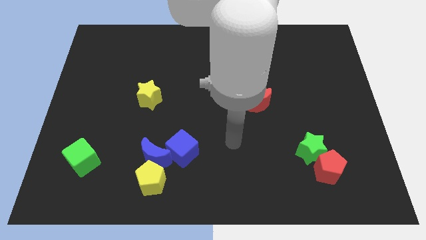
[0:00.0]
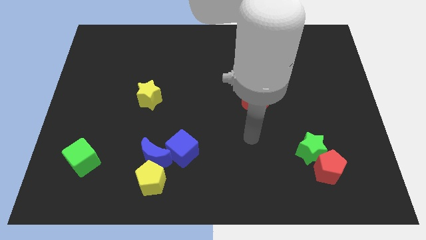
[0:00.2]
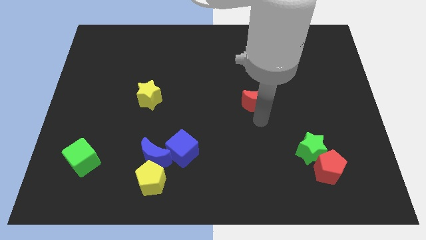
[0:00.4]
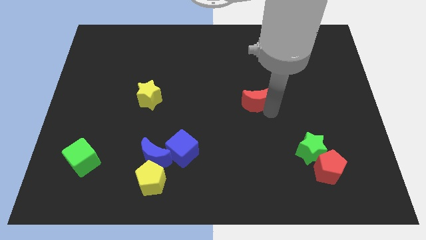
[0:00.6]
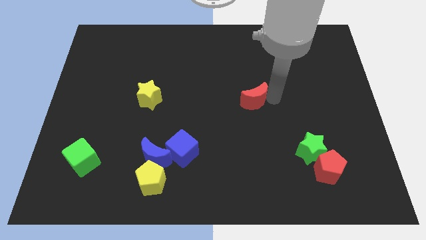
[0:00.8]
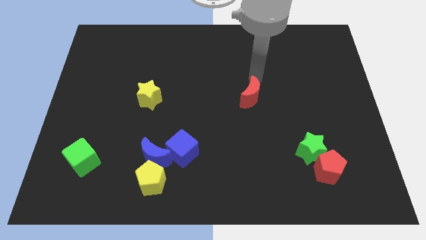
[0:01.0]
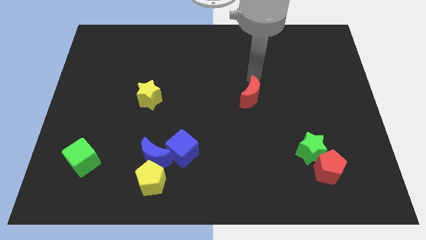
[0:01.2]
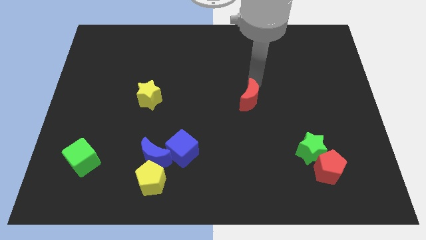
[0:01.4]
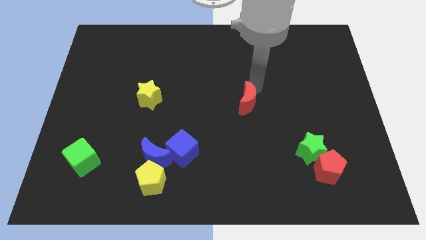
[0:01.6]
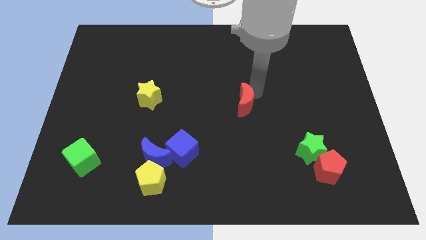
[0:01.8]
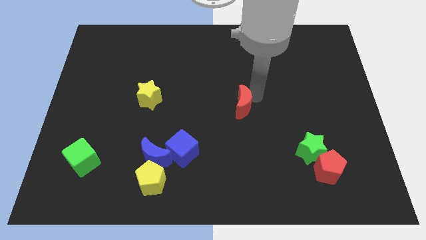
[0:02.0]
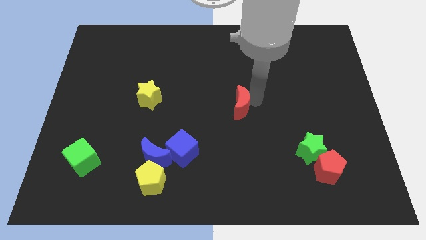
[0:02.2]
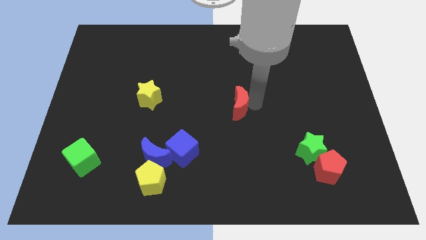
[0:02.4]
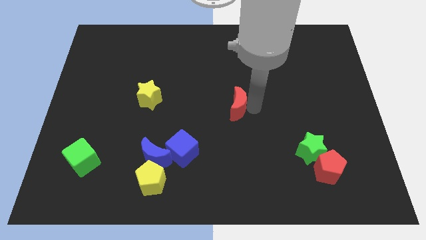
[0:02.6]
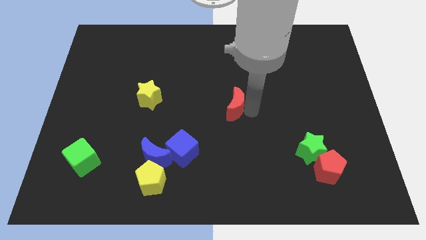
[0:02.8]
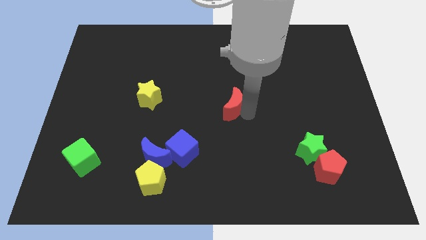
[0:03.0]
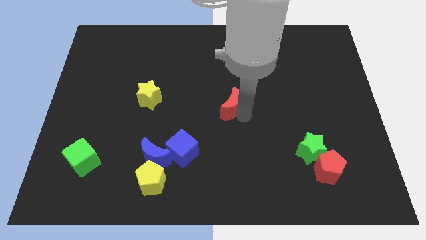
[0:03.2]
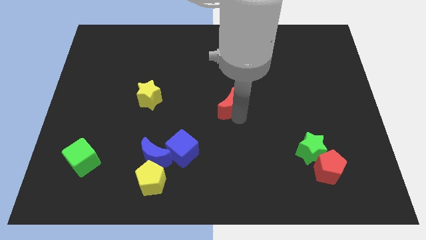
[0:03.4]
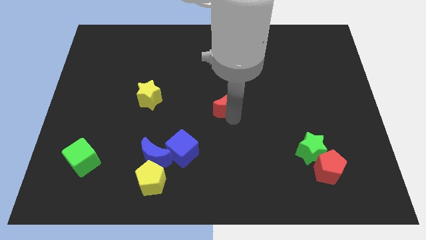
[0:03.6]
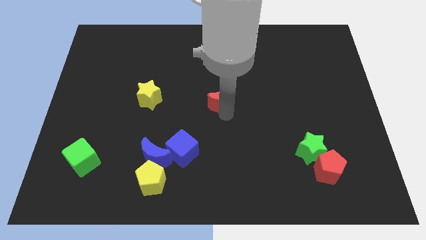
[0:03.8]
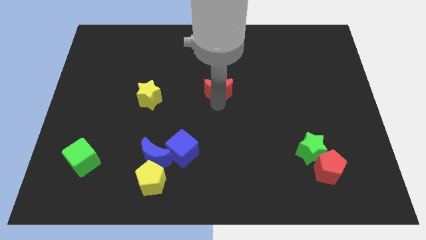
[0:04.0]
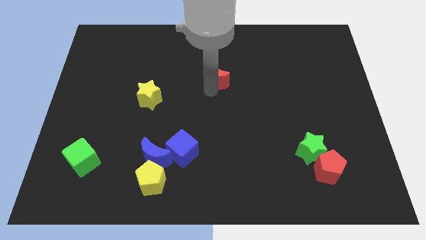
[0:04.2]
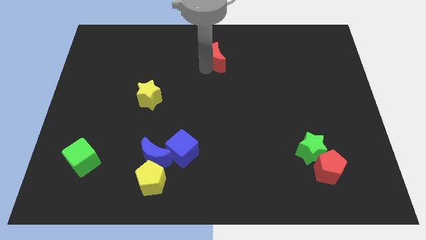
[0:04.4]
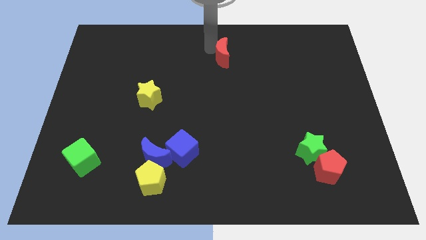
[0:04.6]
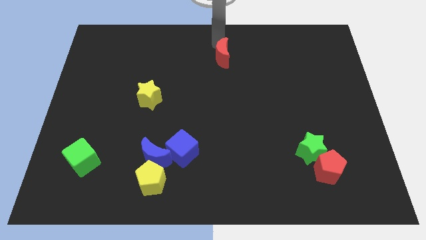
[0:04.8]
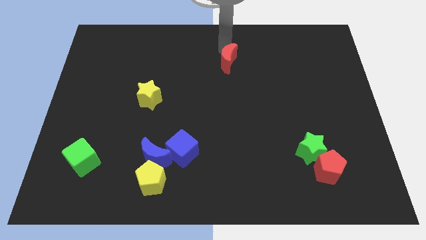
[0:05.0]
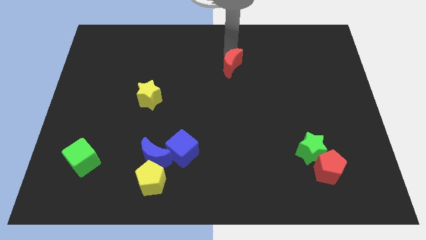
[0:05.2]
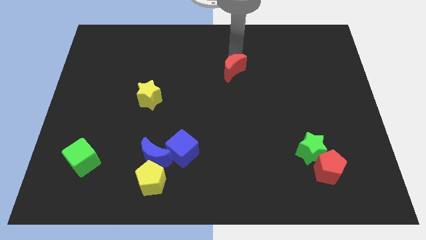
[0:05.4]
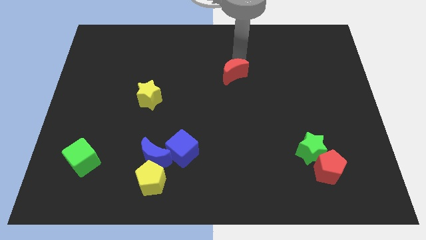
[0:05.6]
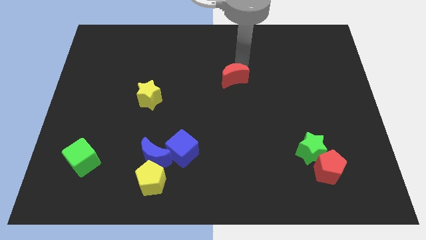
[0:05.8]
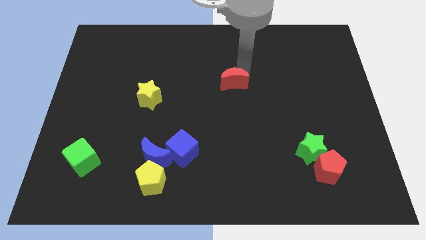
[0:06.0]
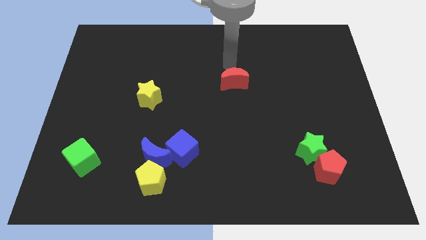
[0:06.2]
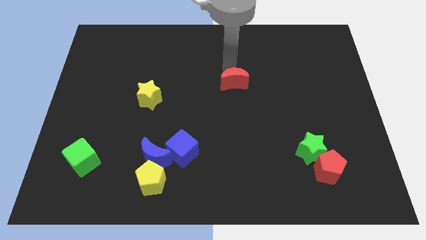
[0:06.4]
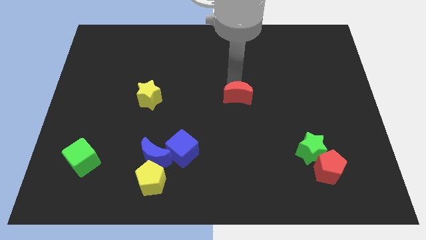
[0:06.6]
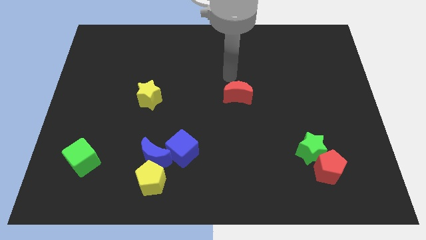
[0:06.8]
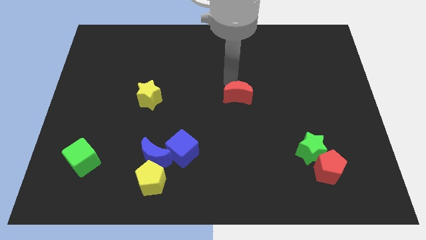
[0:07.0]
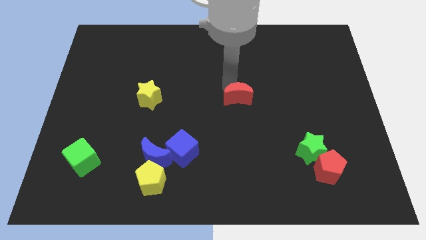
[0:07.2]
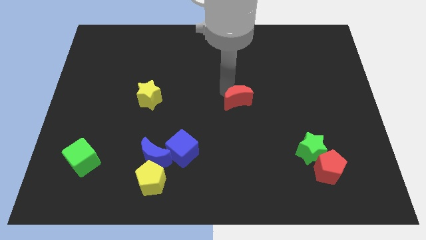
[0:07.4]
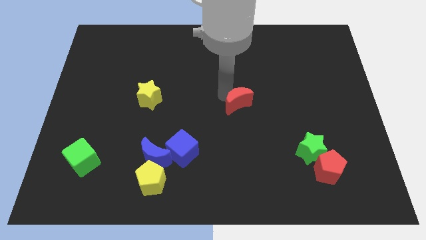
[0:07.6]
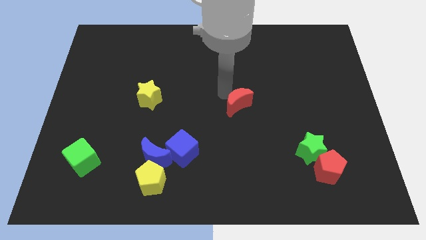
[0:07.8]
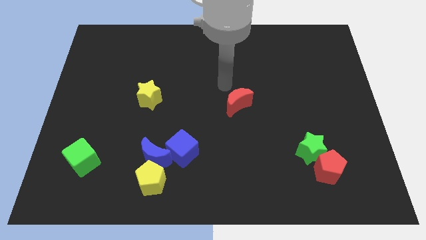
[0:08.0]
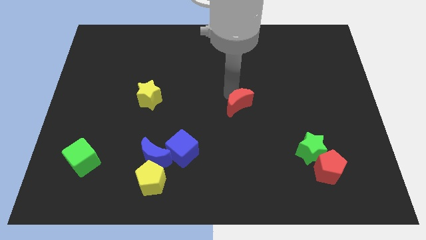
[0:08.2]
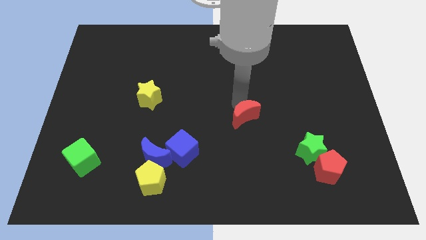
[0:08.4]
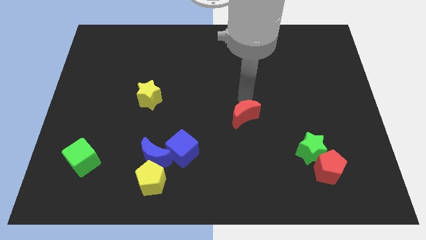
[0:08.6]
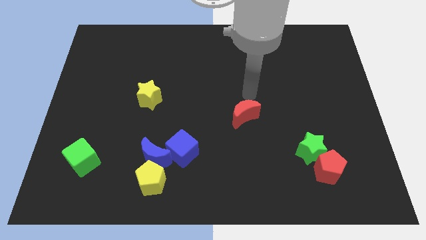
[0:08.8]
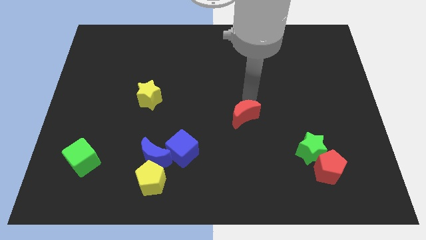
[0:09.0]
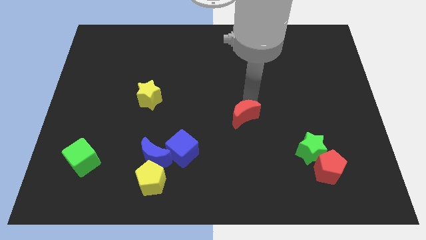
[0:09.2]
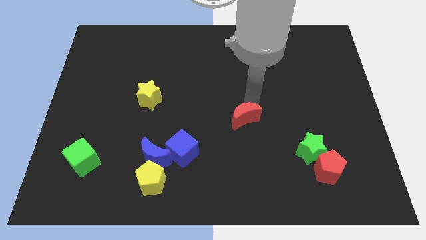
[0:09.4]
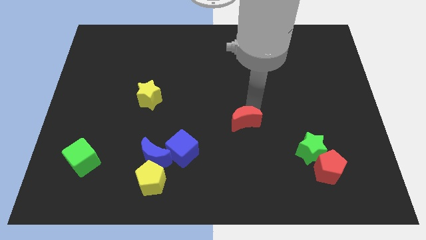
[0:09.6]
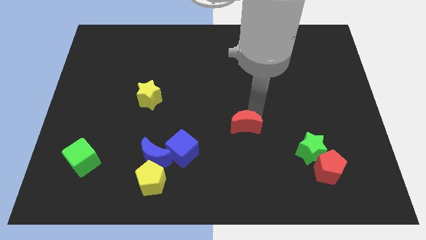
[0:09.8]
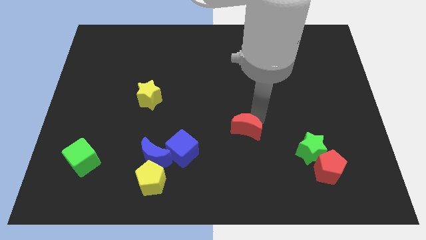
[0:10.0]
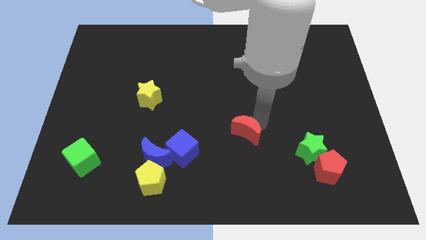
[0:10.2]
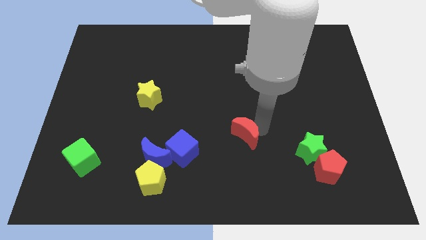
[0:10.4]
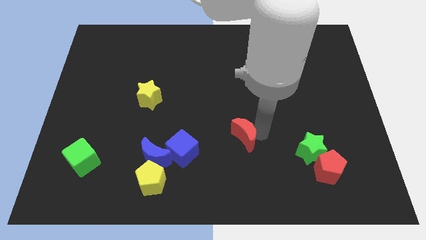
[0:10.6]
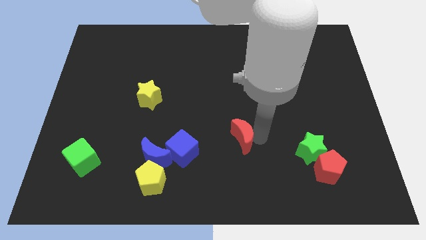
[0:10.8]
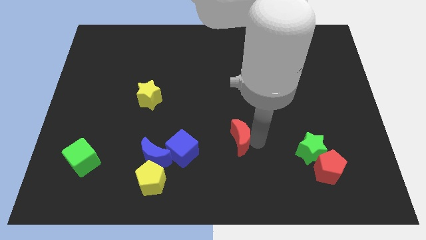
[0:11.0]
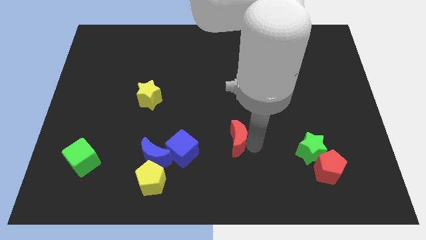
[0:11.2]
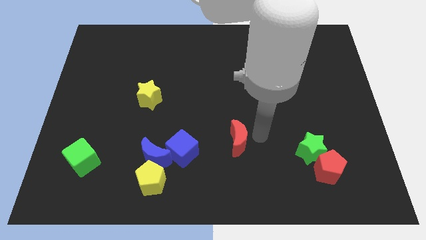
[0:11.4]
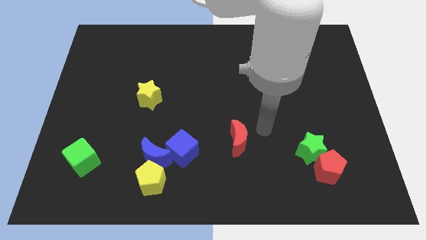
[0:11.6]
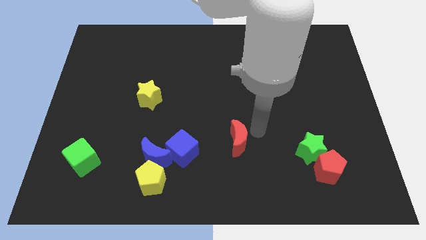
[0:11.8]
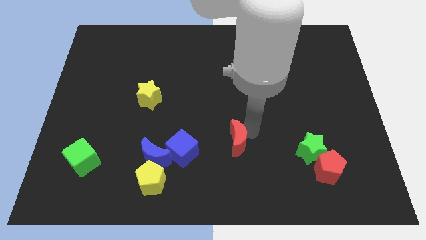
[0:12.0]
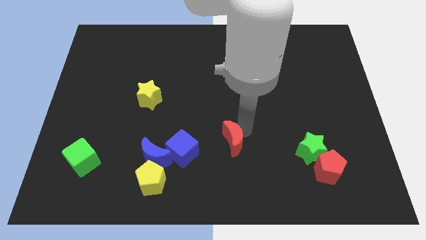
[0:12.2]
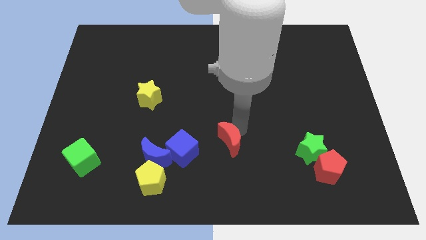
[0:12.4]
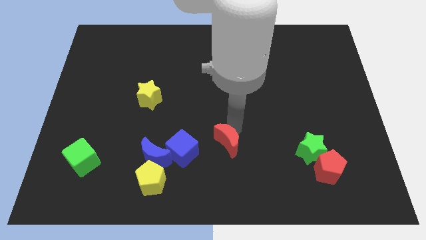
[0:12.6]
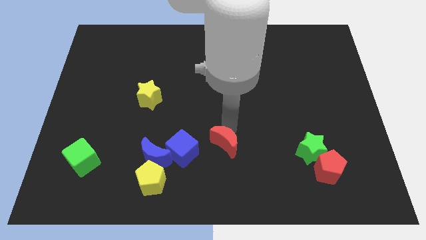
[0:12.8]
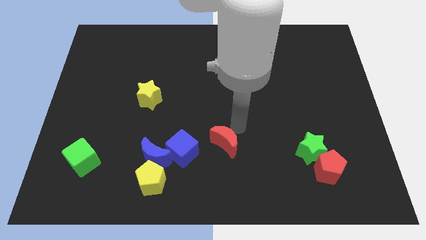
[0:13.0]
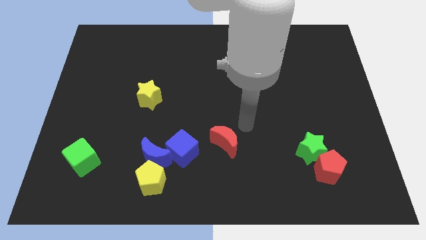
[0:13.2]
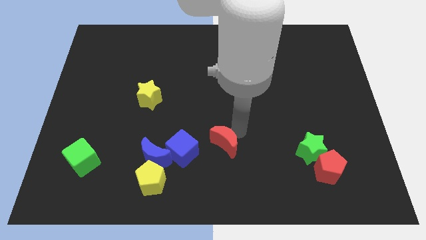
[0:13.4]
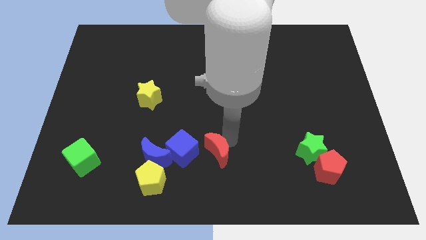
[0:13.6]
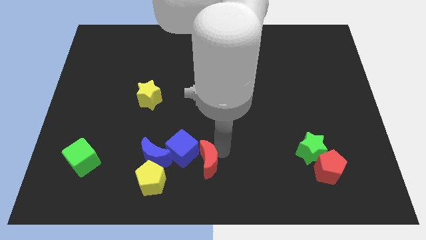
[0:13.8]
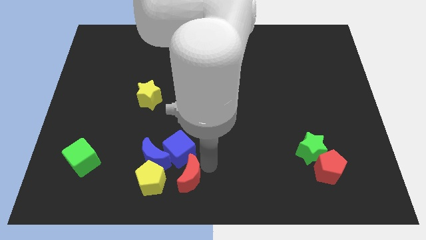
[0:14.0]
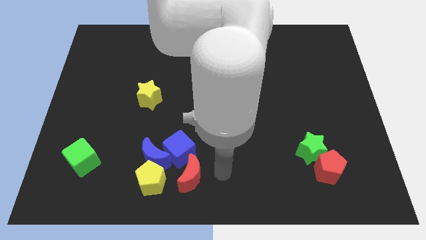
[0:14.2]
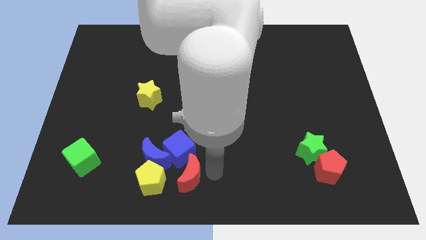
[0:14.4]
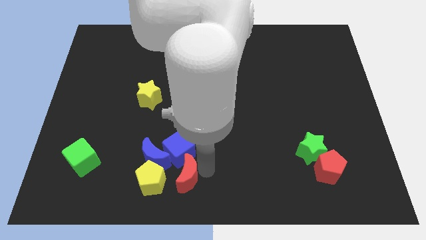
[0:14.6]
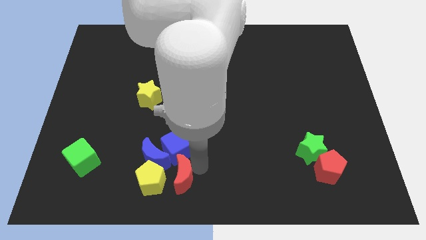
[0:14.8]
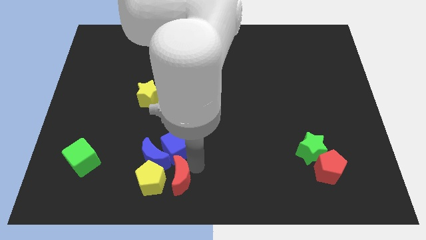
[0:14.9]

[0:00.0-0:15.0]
move the red moon close to the yellow pentagon
